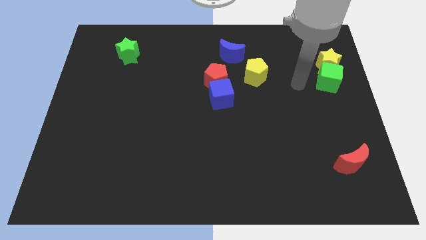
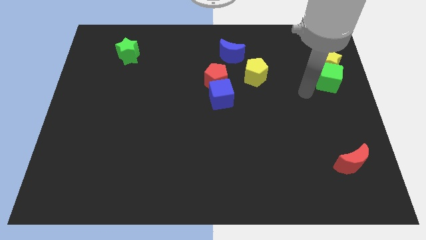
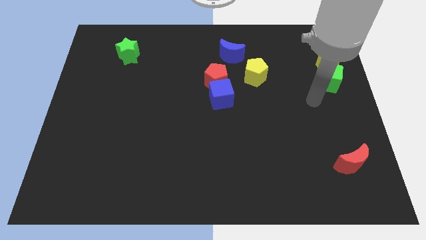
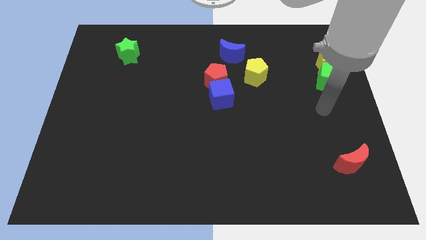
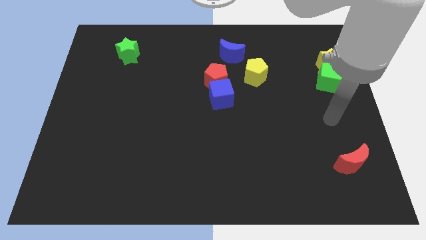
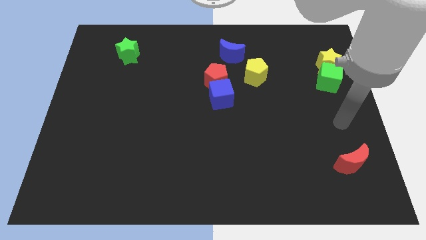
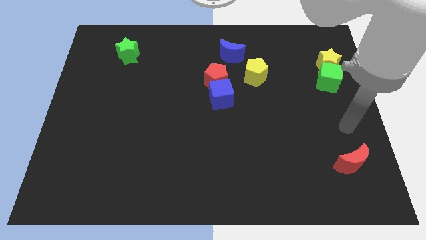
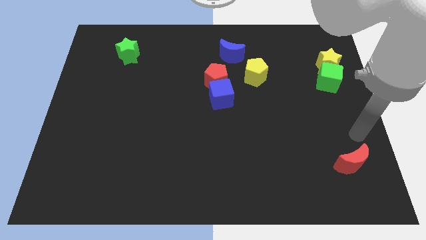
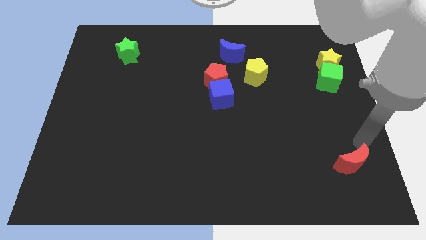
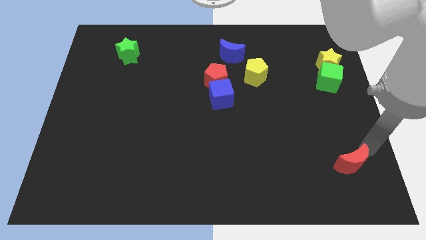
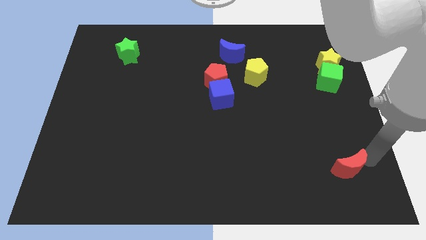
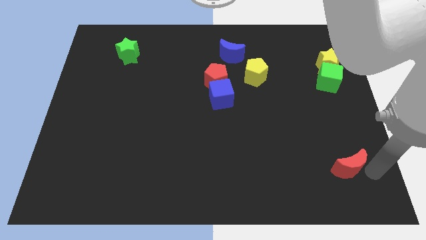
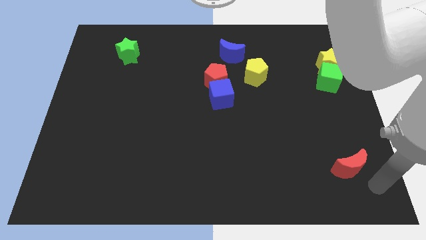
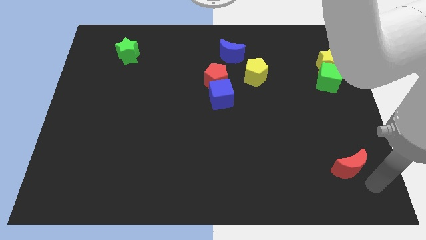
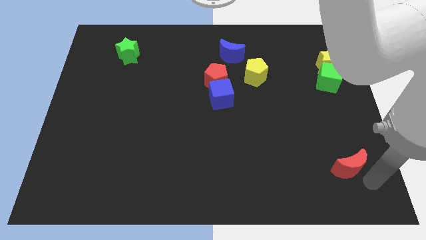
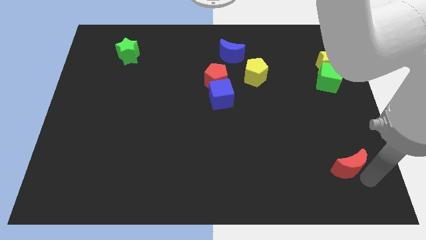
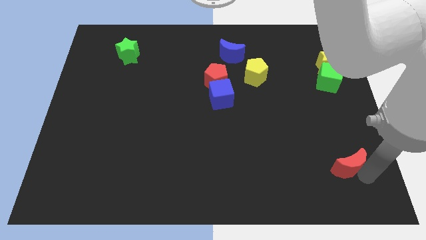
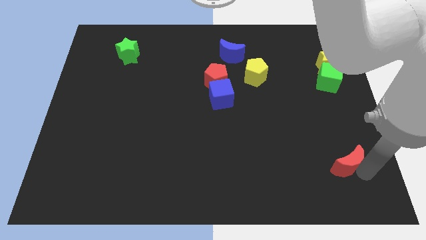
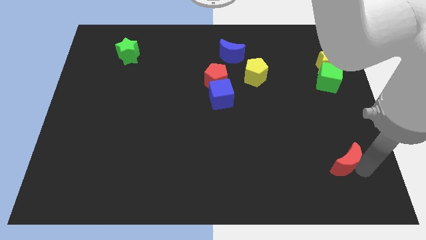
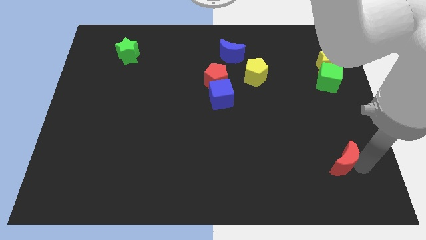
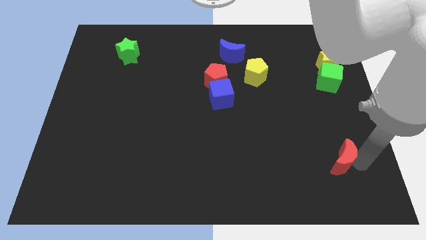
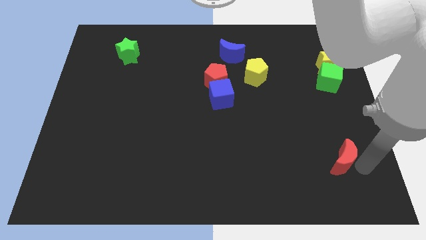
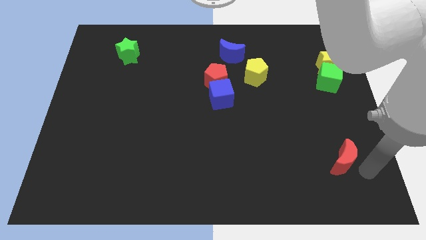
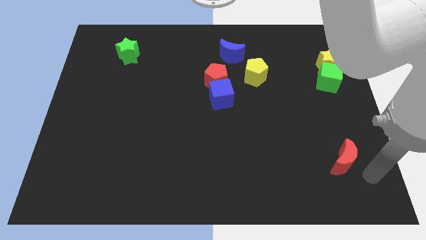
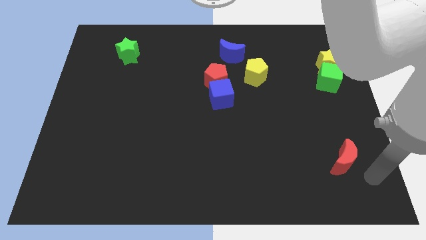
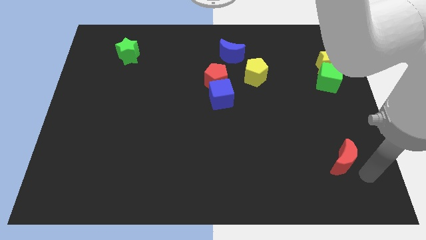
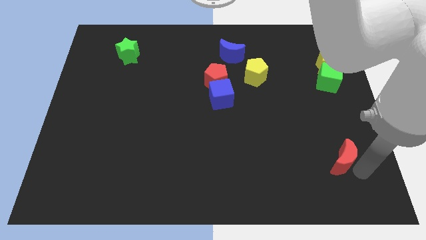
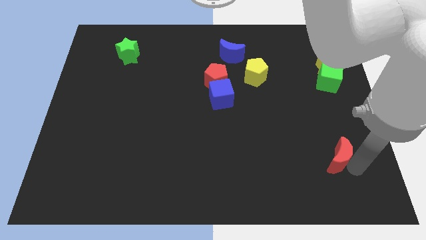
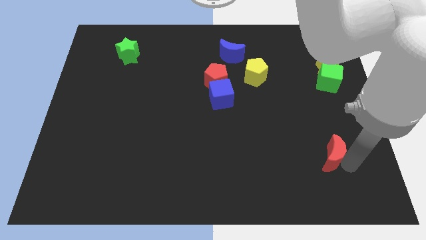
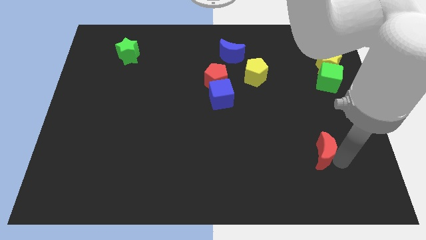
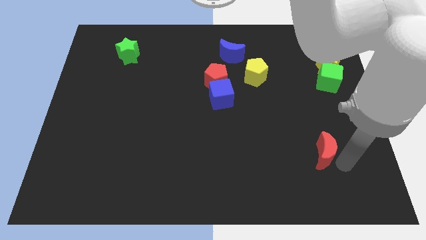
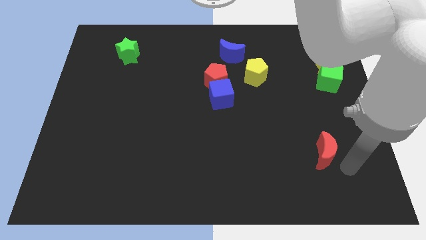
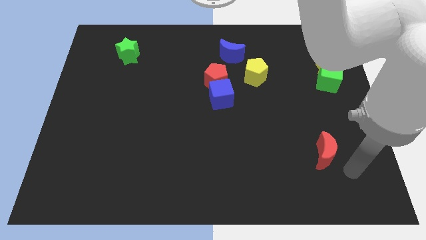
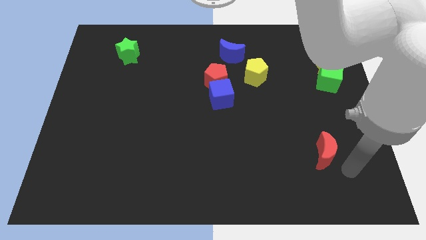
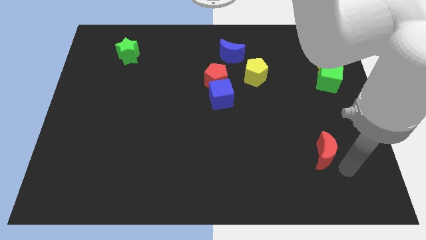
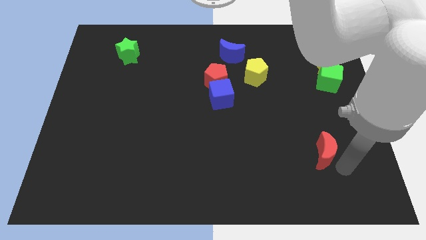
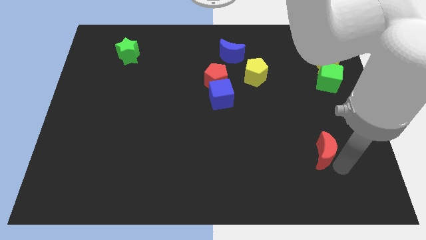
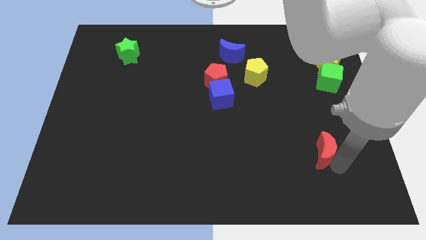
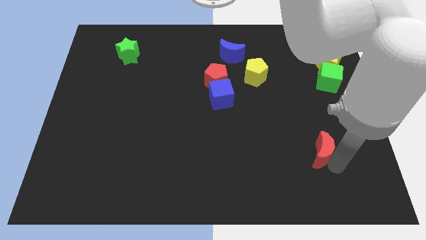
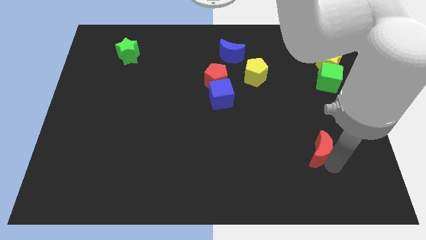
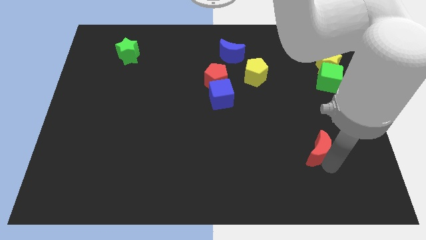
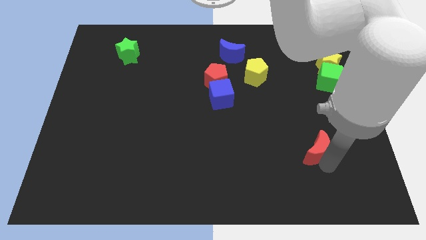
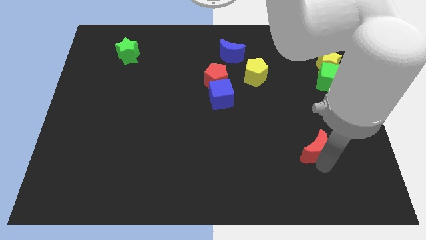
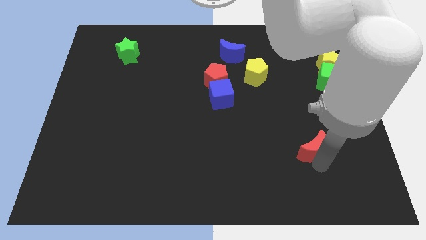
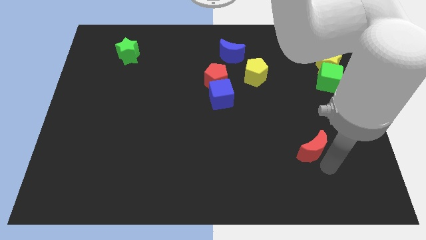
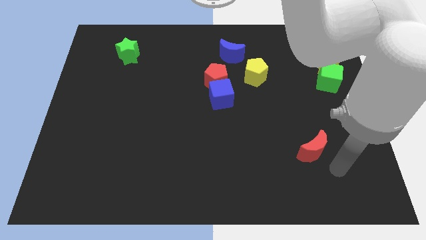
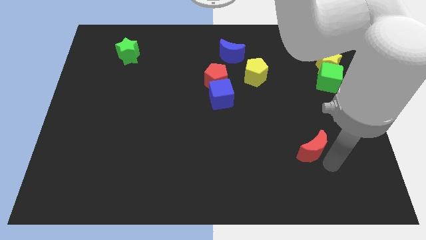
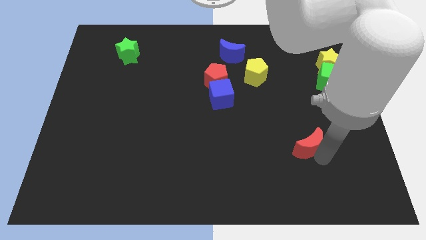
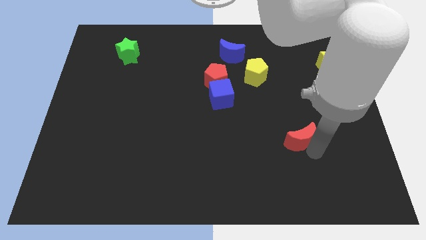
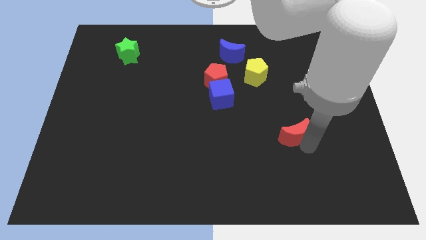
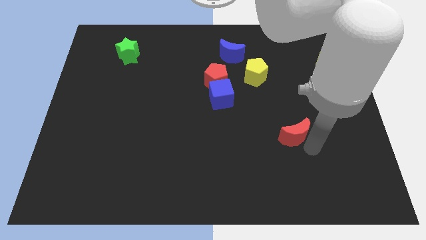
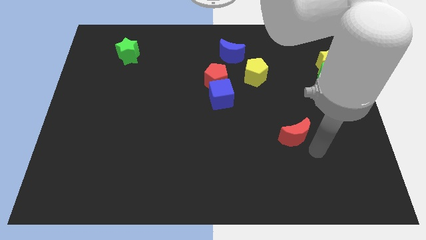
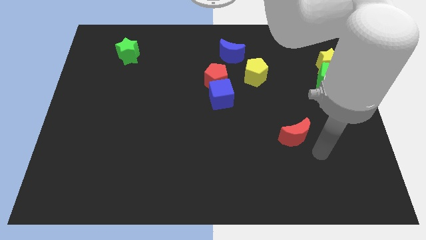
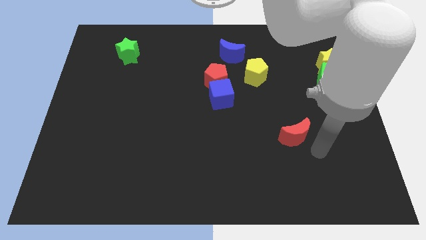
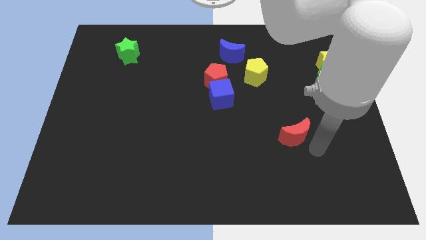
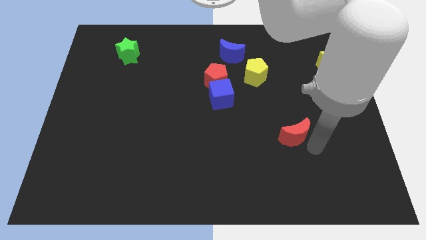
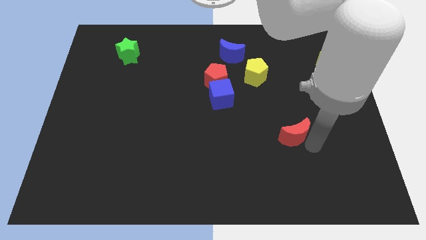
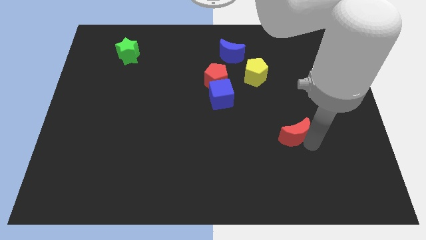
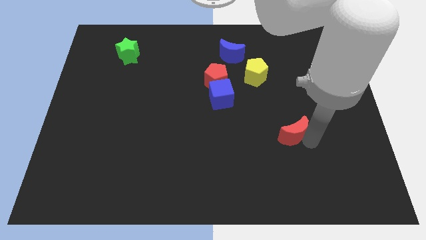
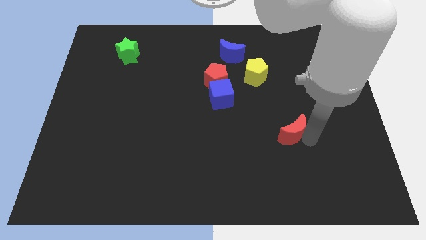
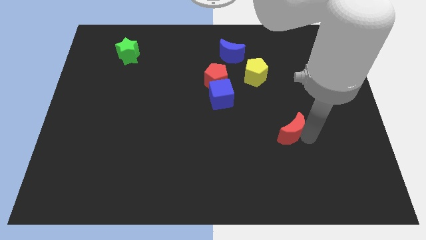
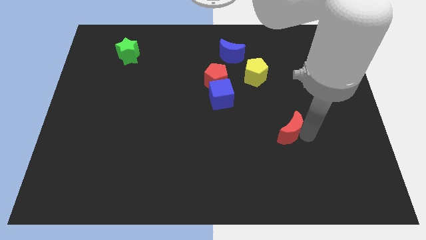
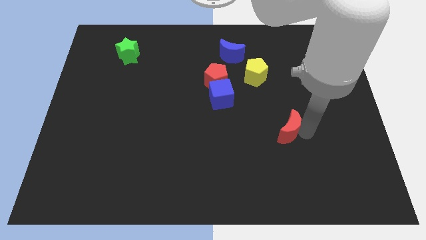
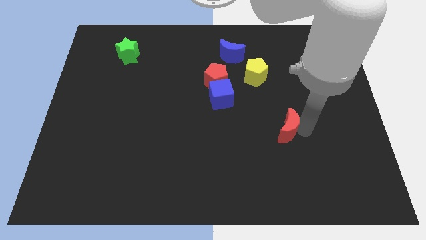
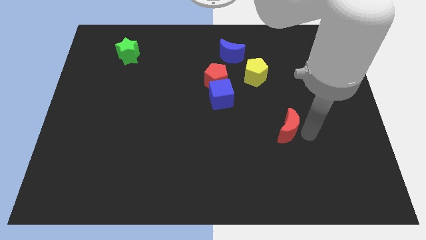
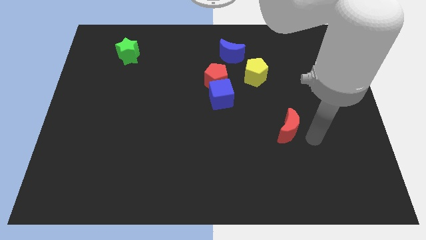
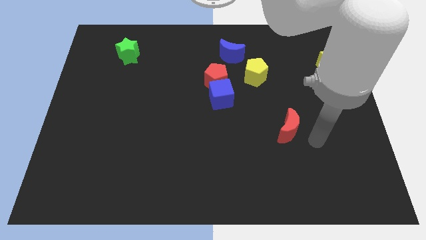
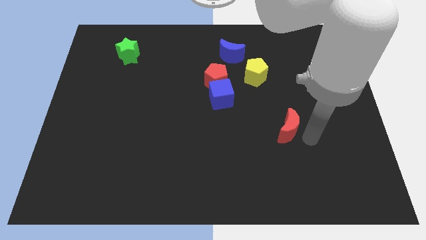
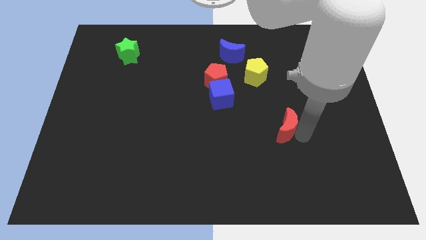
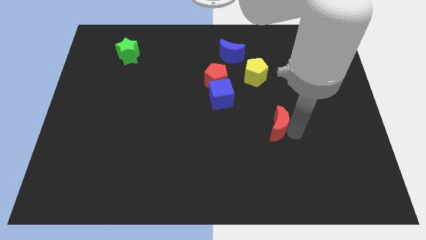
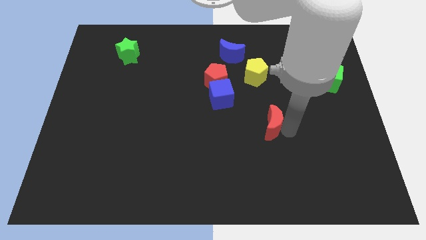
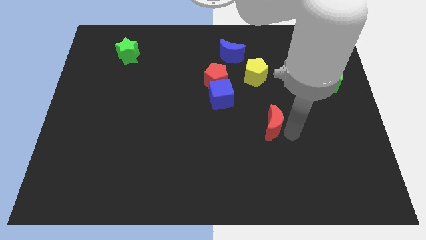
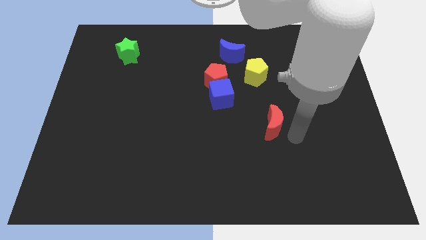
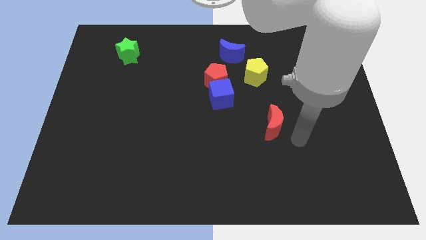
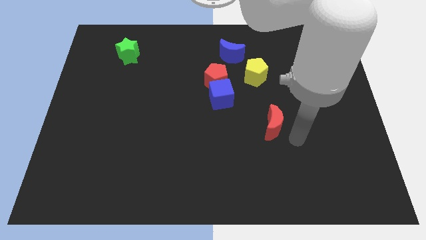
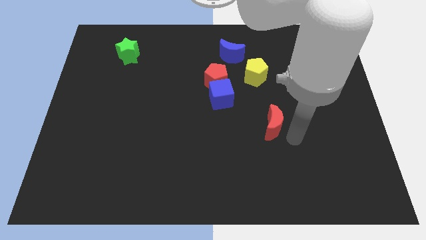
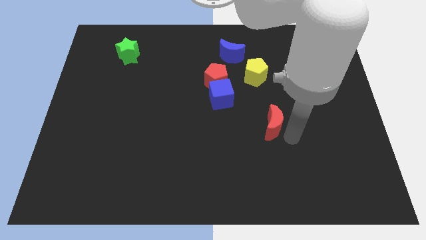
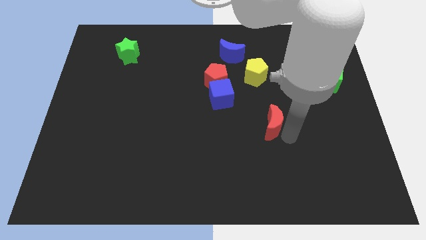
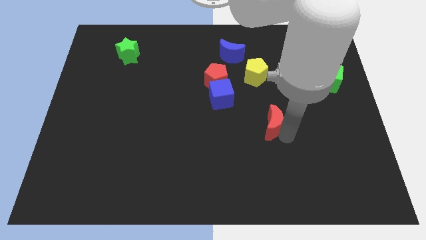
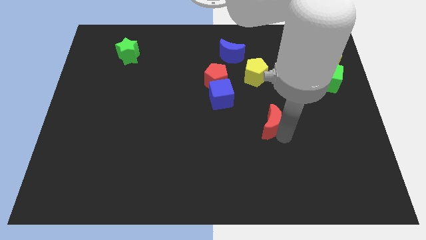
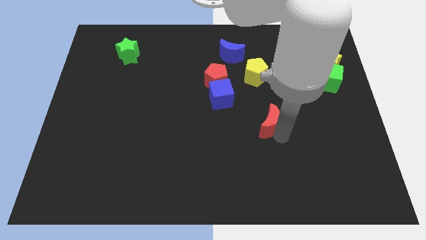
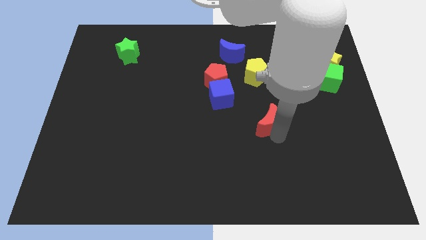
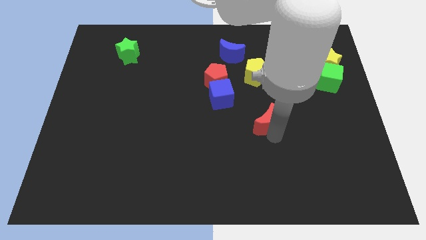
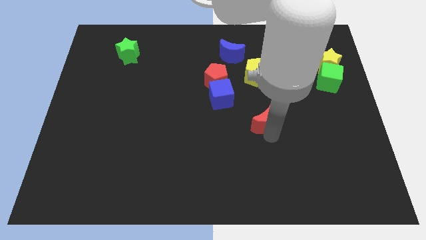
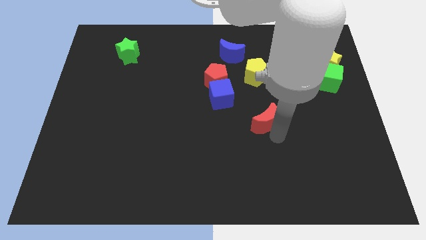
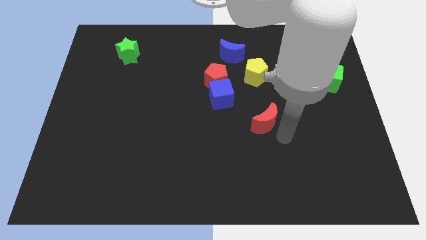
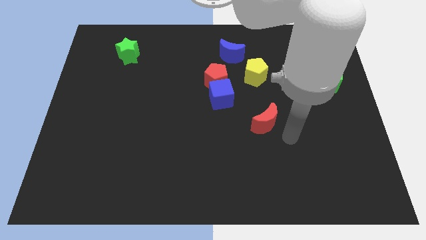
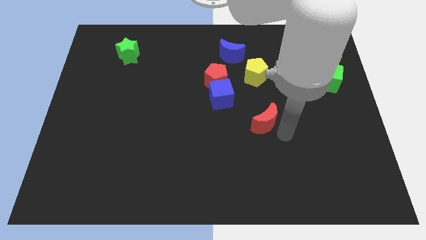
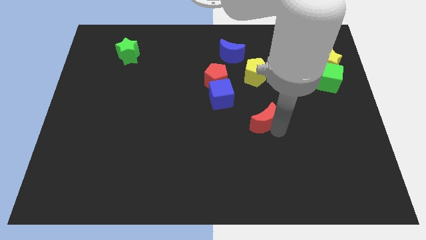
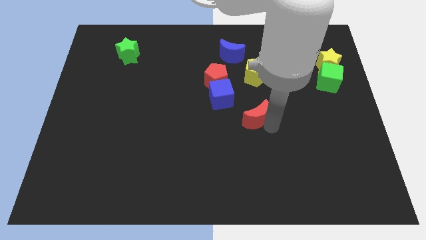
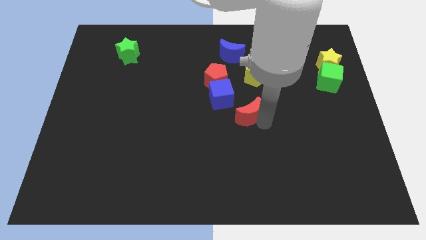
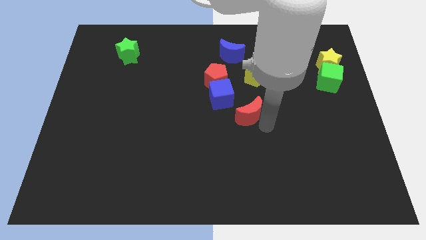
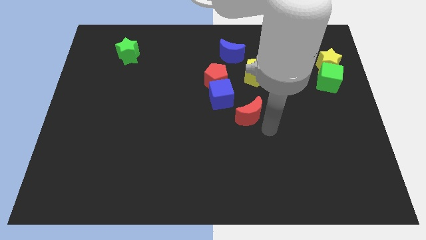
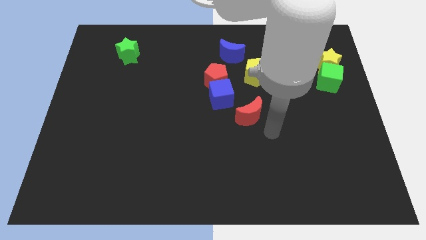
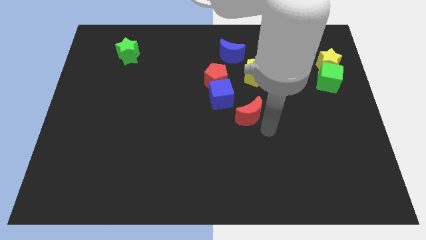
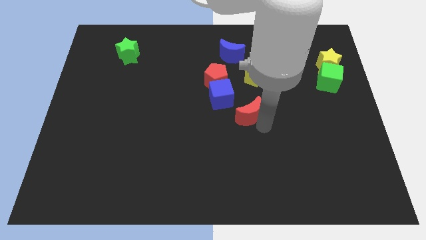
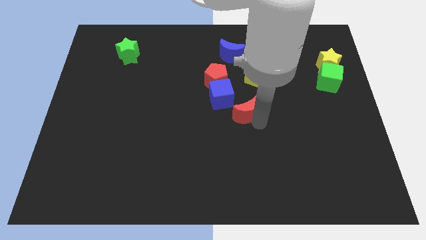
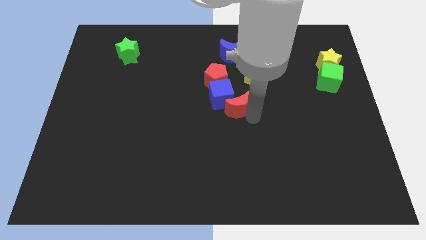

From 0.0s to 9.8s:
move the red moon towards the blue cube
